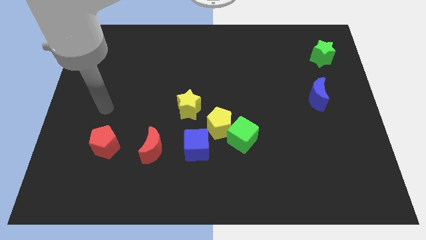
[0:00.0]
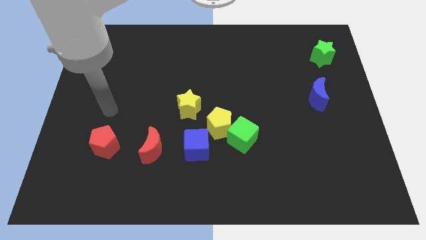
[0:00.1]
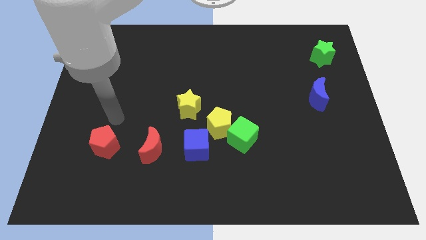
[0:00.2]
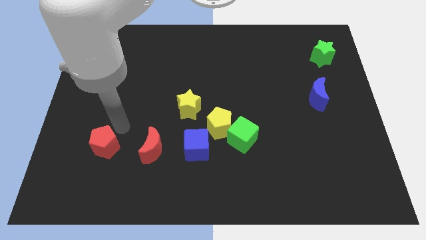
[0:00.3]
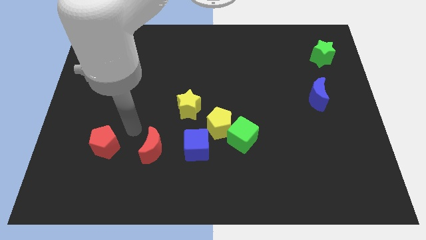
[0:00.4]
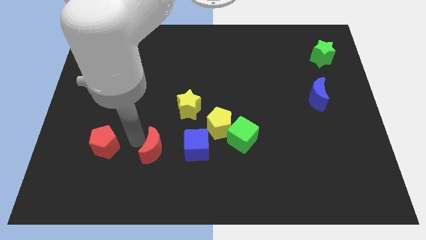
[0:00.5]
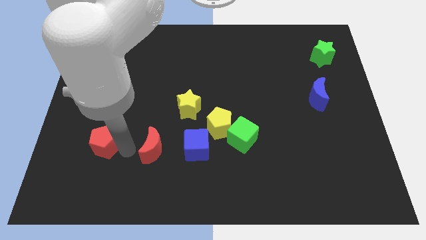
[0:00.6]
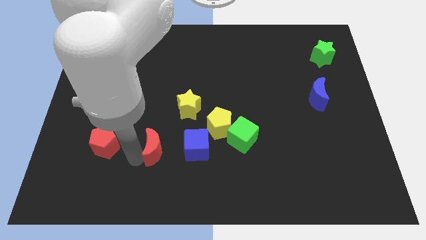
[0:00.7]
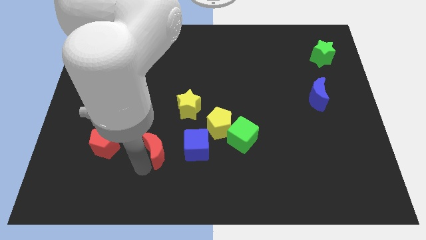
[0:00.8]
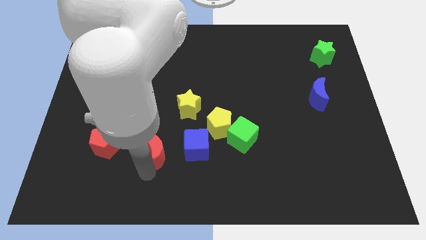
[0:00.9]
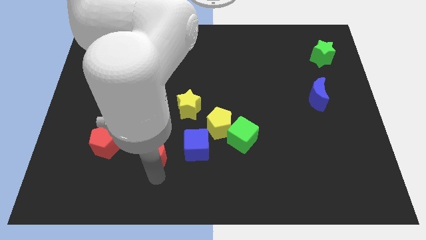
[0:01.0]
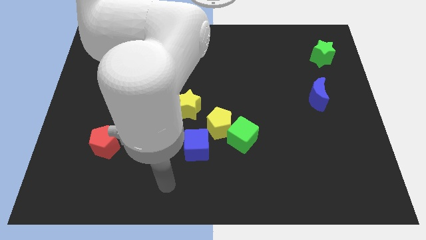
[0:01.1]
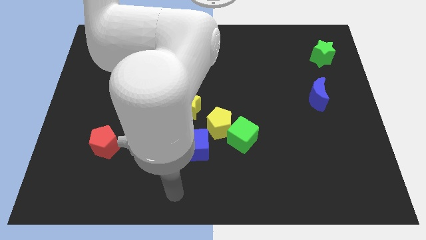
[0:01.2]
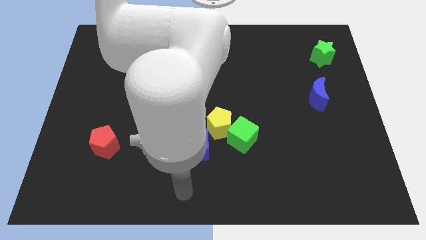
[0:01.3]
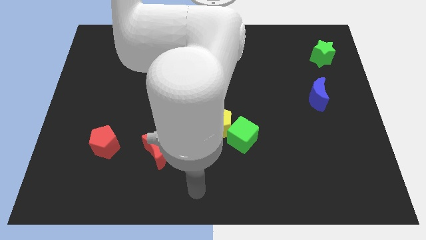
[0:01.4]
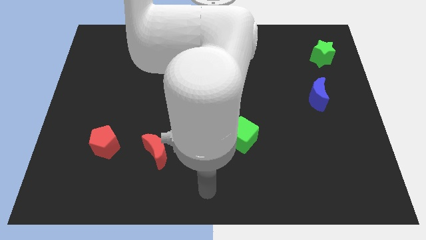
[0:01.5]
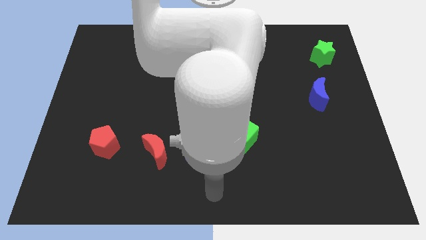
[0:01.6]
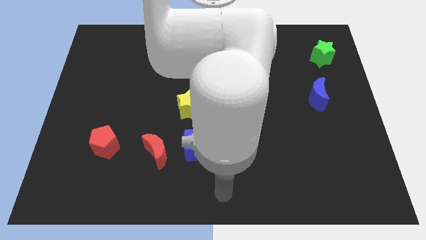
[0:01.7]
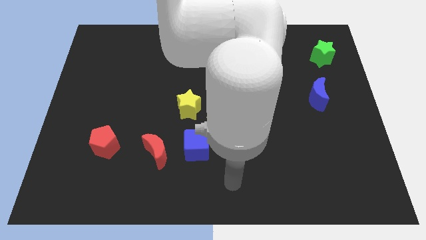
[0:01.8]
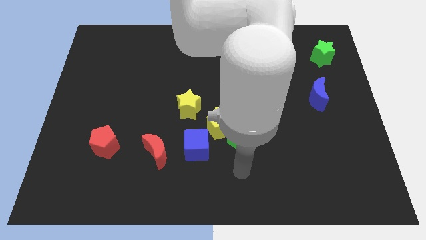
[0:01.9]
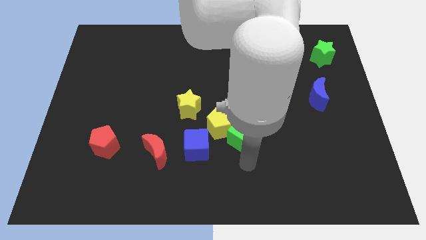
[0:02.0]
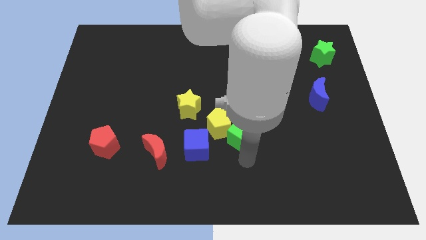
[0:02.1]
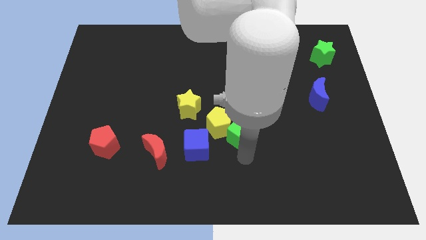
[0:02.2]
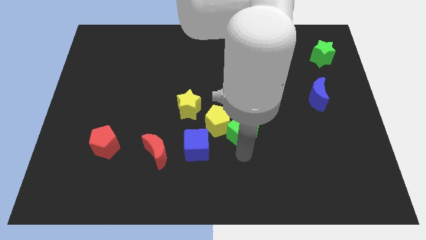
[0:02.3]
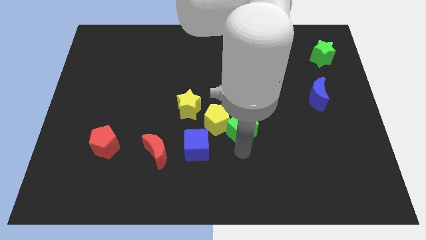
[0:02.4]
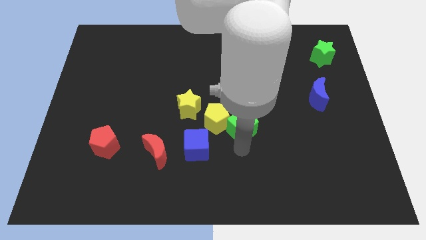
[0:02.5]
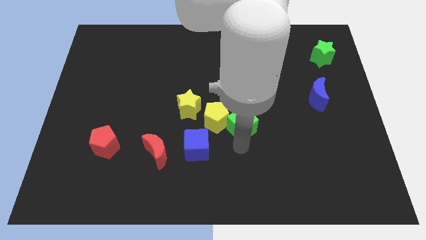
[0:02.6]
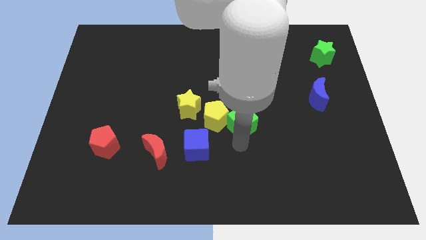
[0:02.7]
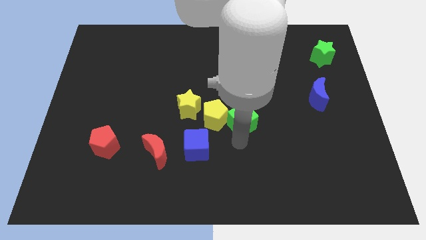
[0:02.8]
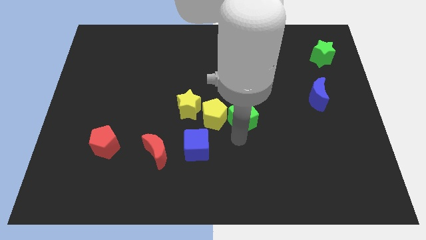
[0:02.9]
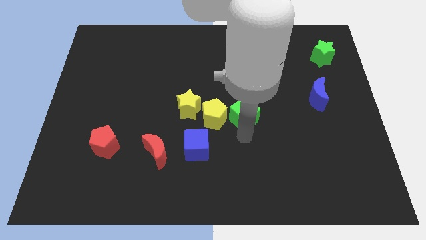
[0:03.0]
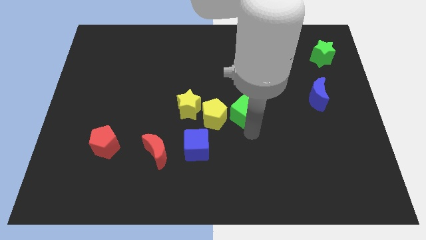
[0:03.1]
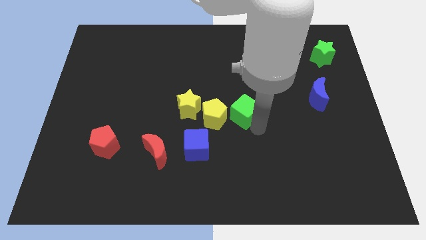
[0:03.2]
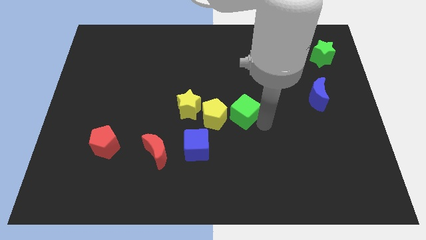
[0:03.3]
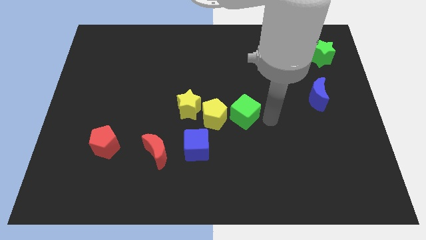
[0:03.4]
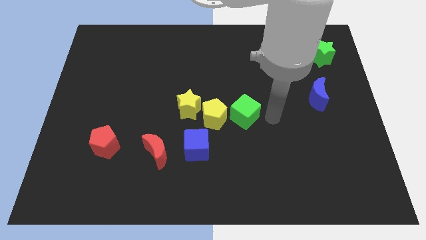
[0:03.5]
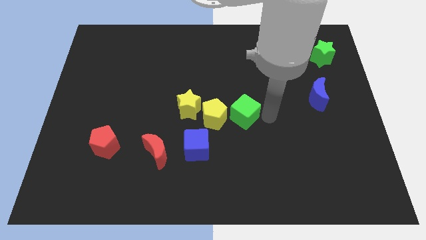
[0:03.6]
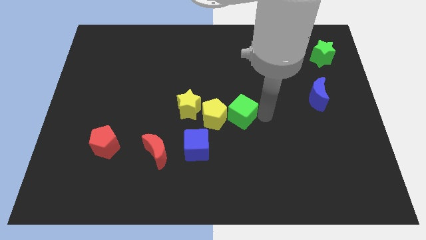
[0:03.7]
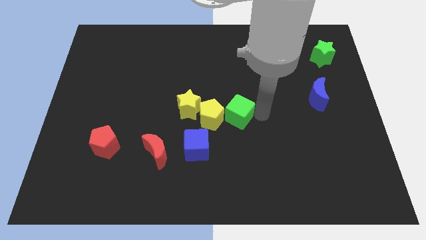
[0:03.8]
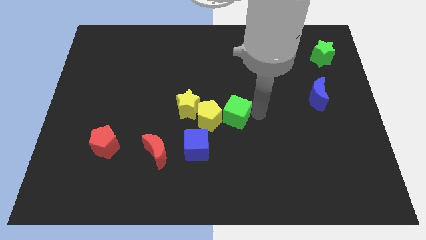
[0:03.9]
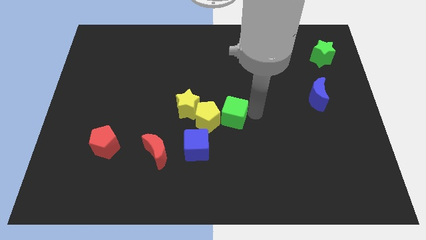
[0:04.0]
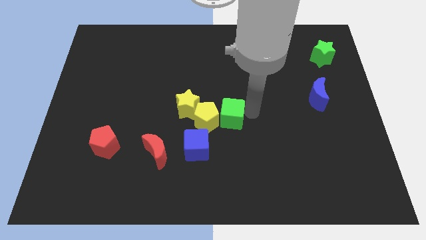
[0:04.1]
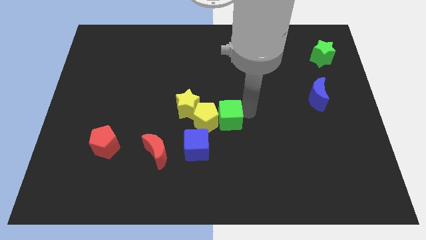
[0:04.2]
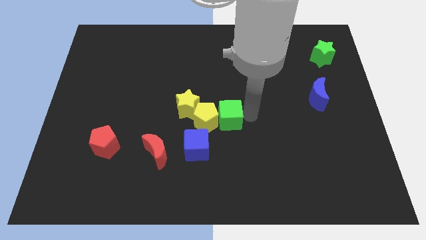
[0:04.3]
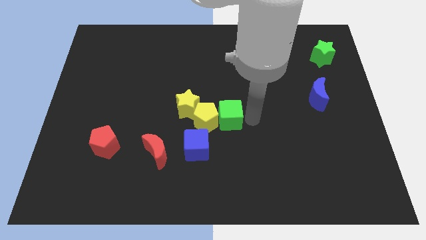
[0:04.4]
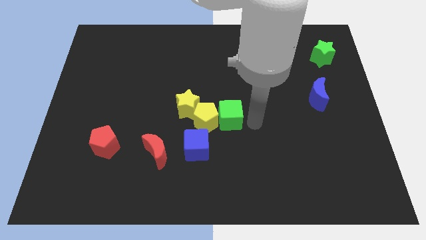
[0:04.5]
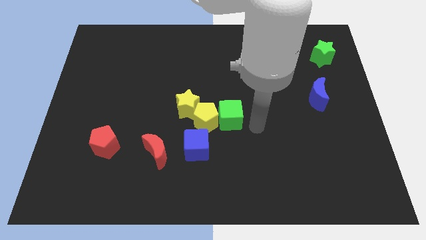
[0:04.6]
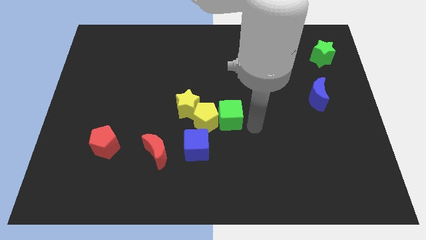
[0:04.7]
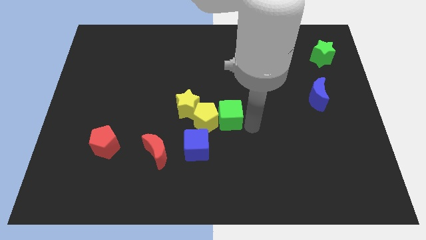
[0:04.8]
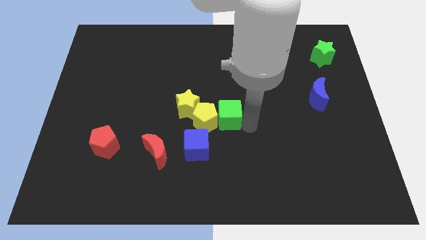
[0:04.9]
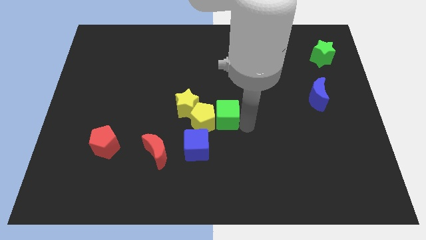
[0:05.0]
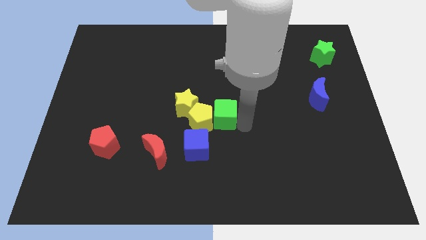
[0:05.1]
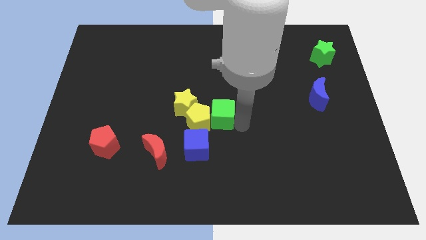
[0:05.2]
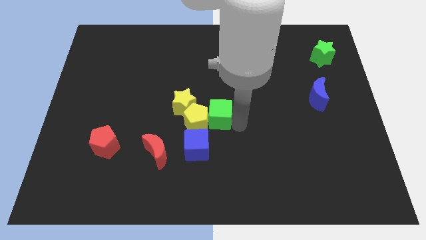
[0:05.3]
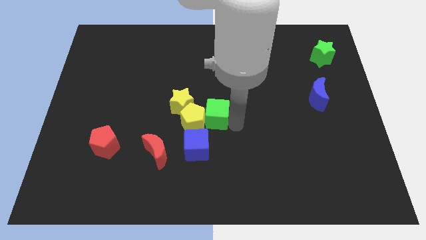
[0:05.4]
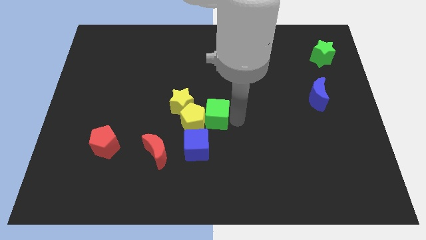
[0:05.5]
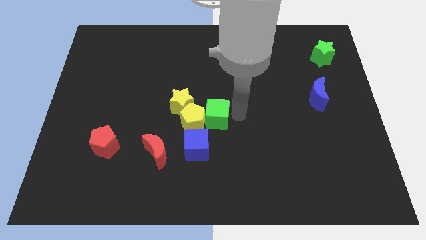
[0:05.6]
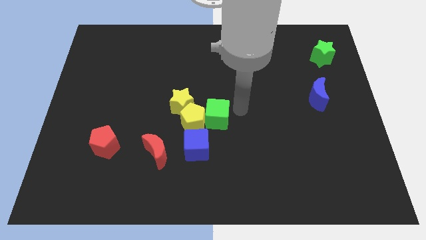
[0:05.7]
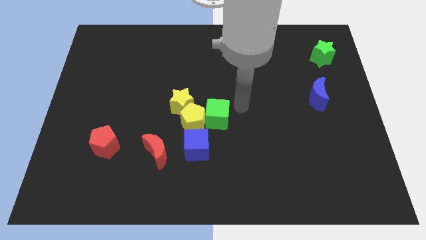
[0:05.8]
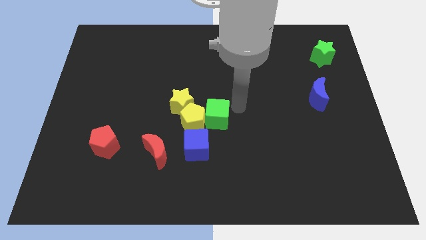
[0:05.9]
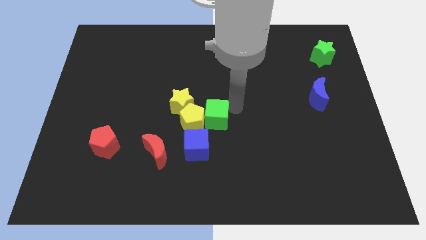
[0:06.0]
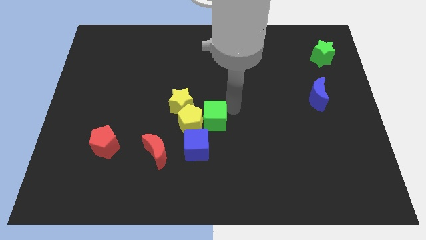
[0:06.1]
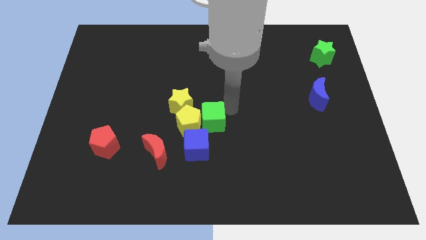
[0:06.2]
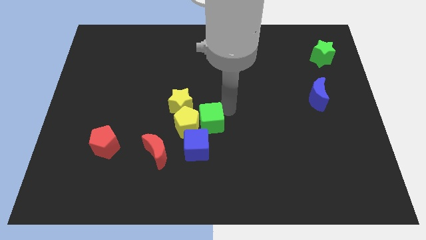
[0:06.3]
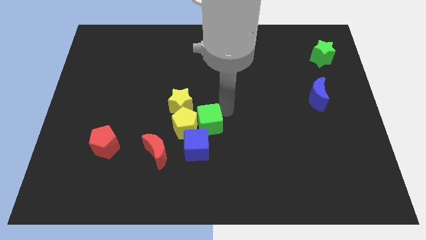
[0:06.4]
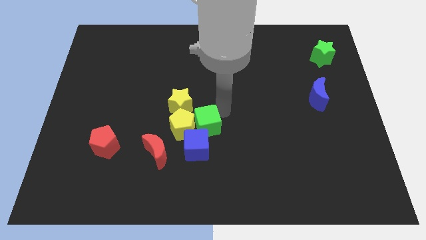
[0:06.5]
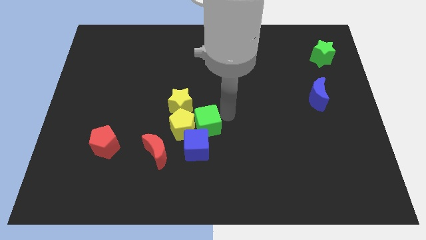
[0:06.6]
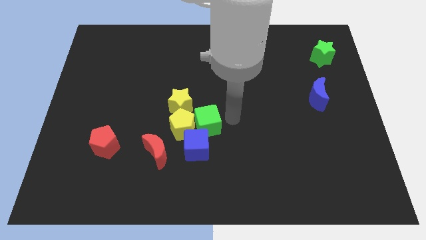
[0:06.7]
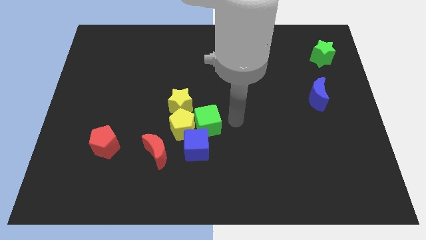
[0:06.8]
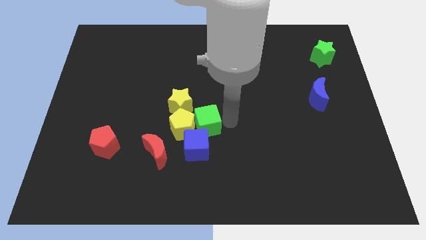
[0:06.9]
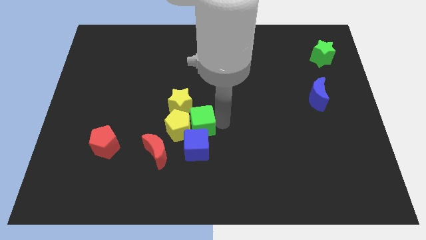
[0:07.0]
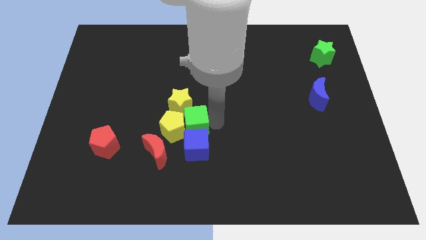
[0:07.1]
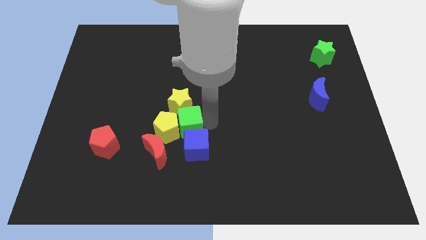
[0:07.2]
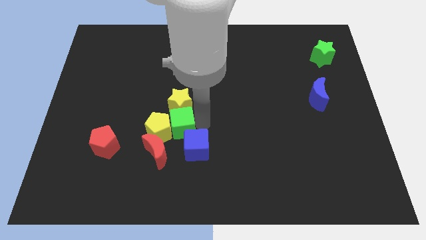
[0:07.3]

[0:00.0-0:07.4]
slide the green cube diagonally down and to the left of the yellow star
